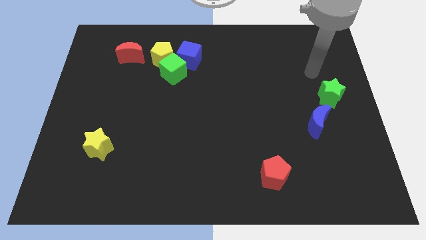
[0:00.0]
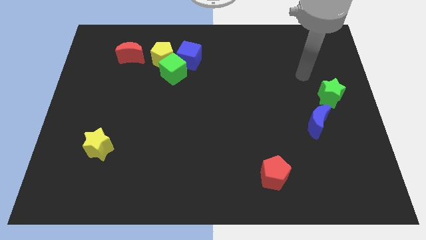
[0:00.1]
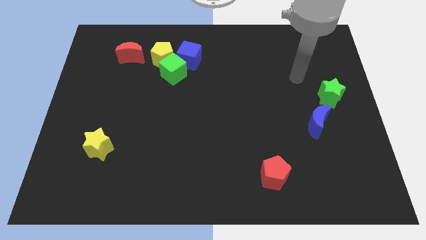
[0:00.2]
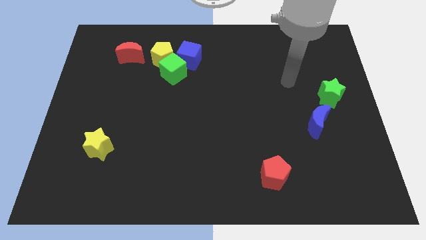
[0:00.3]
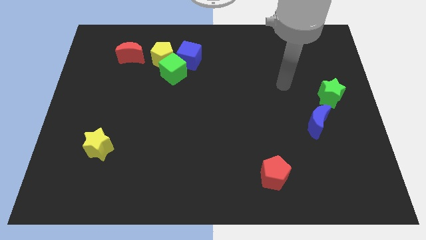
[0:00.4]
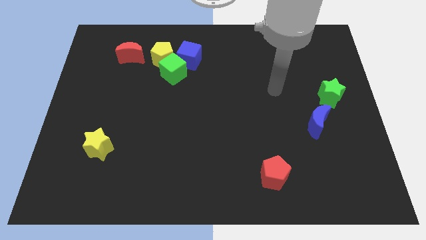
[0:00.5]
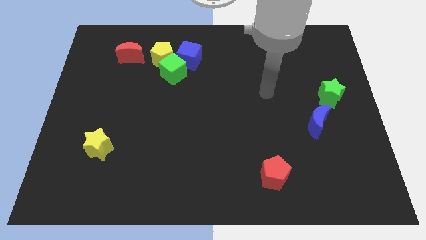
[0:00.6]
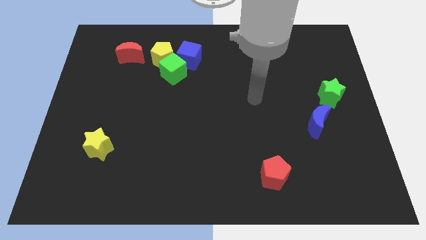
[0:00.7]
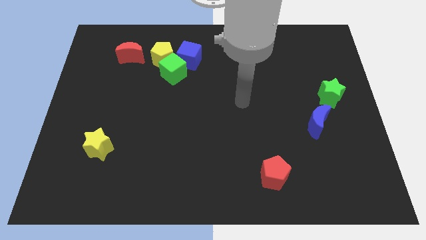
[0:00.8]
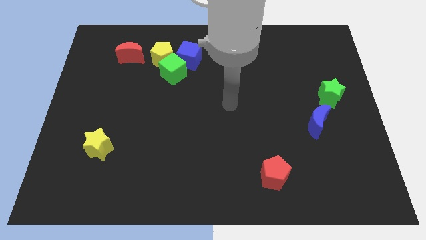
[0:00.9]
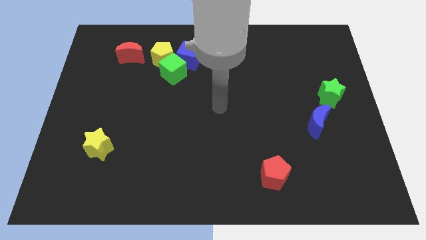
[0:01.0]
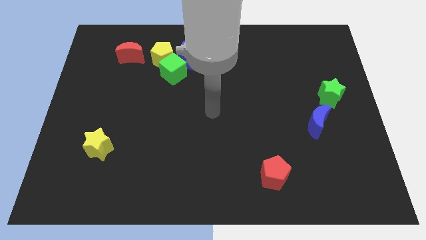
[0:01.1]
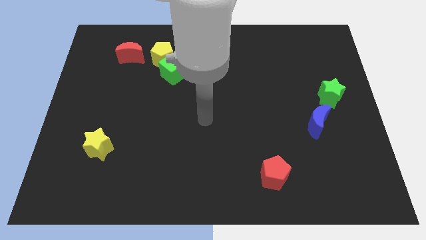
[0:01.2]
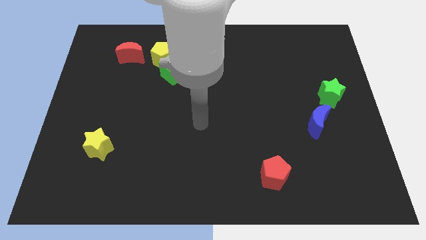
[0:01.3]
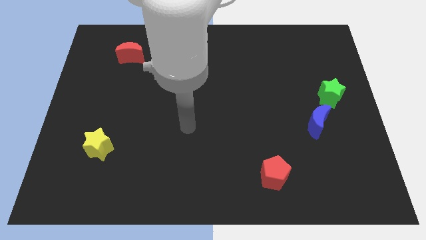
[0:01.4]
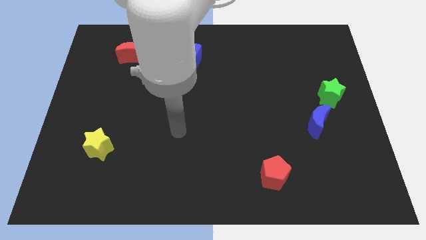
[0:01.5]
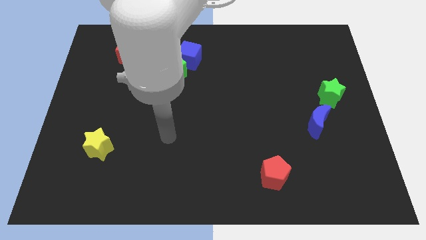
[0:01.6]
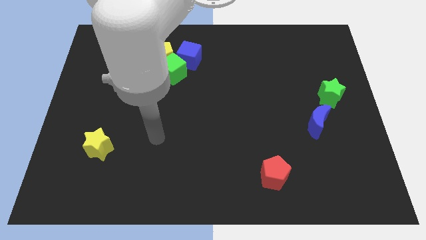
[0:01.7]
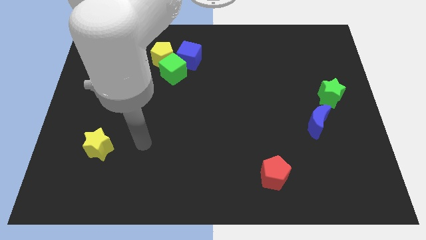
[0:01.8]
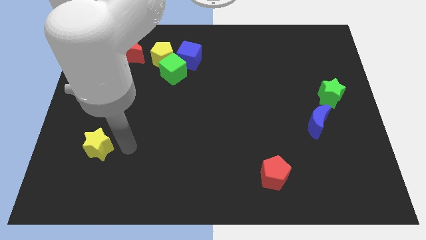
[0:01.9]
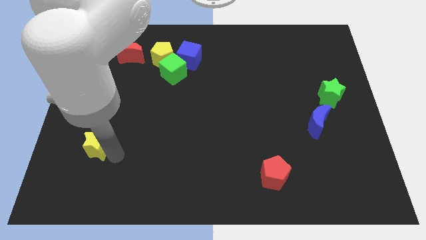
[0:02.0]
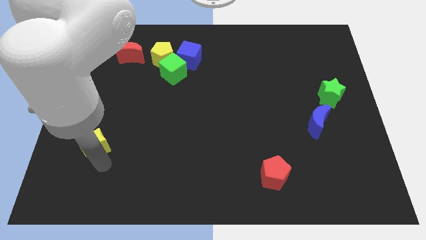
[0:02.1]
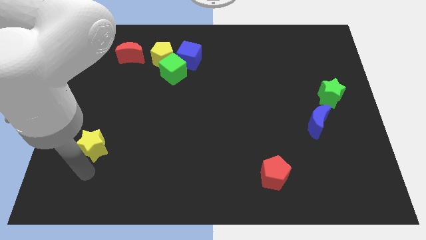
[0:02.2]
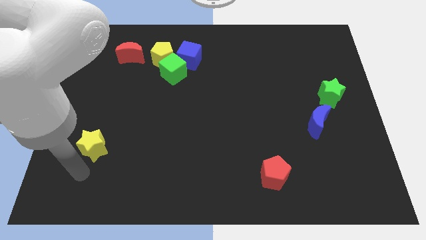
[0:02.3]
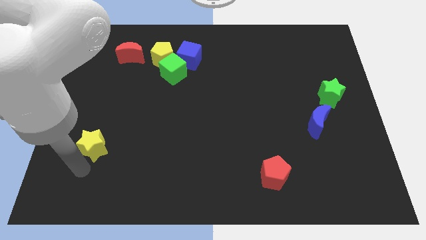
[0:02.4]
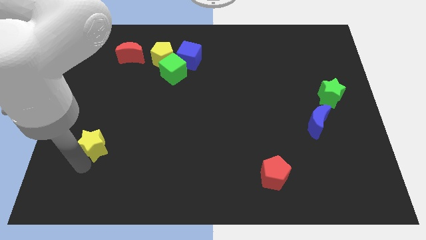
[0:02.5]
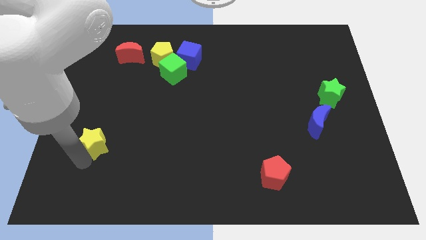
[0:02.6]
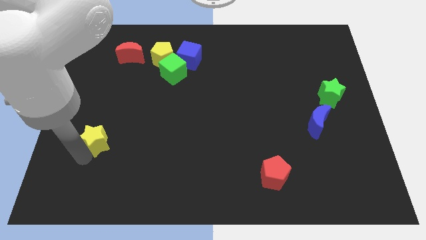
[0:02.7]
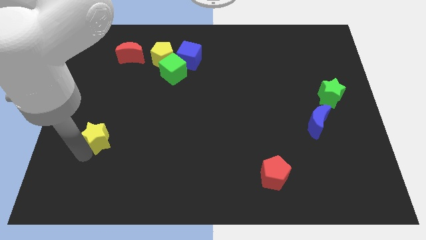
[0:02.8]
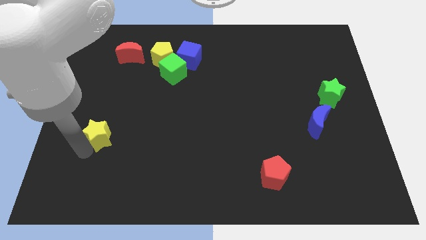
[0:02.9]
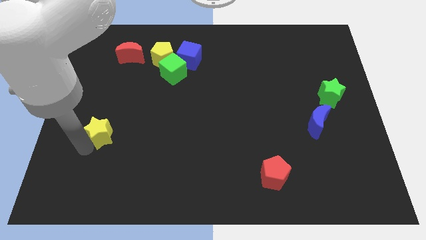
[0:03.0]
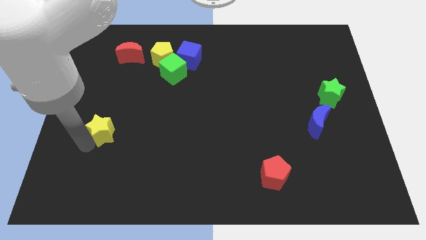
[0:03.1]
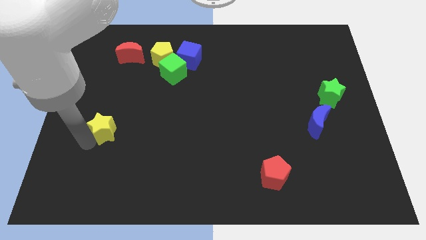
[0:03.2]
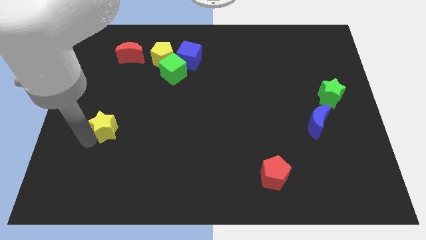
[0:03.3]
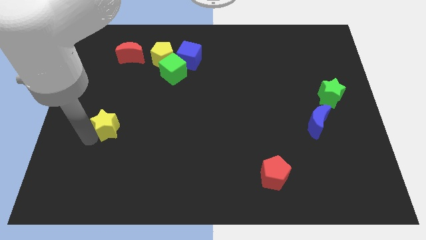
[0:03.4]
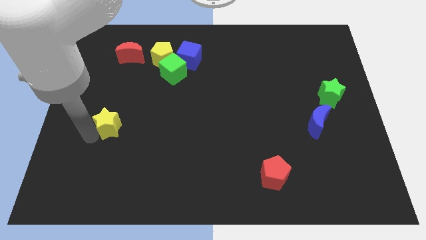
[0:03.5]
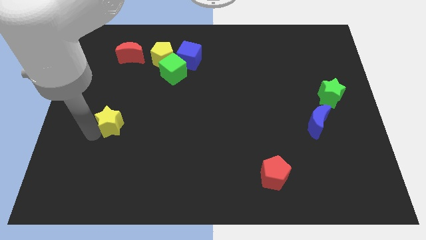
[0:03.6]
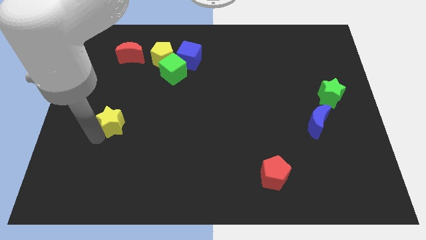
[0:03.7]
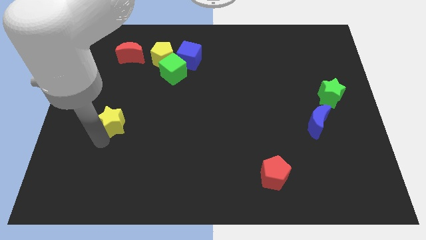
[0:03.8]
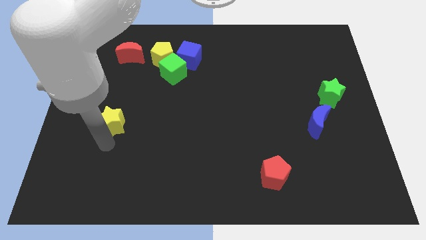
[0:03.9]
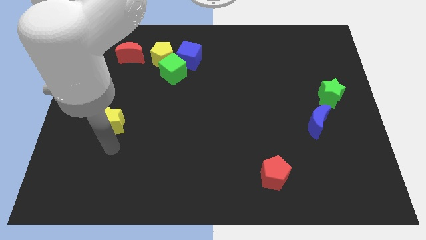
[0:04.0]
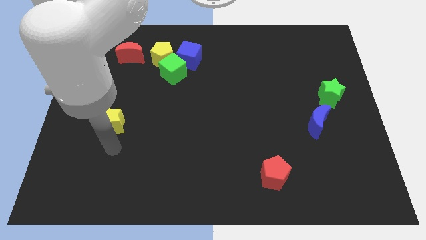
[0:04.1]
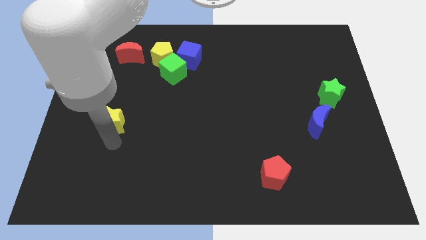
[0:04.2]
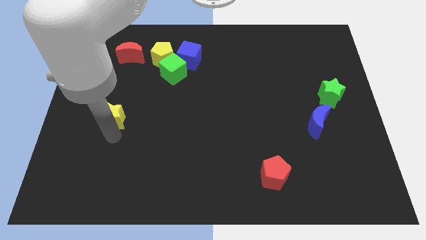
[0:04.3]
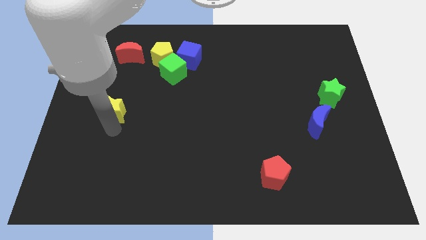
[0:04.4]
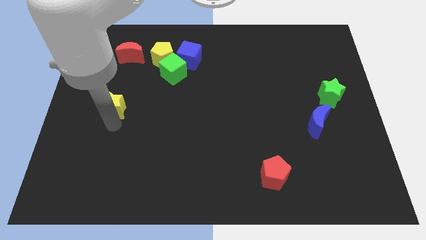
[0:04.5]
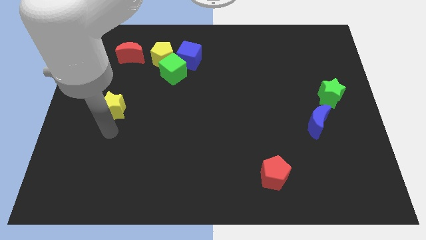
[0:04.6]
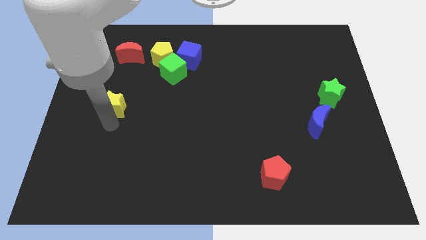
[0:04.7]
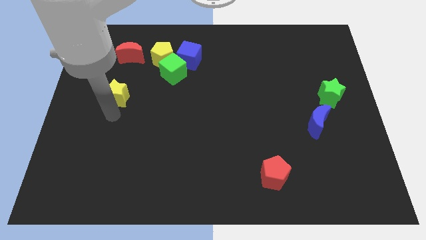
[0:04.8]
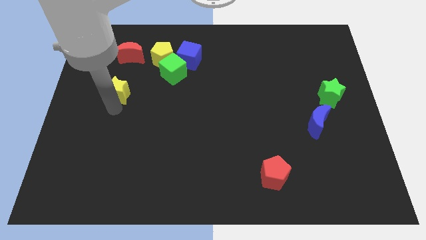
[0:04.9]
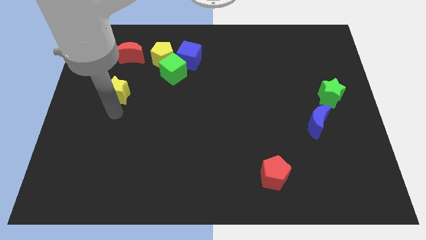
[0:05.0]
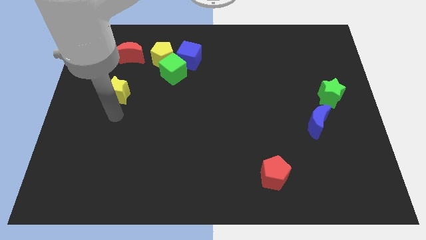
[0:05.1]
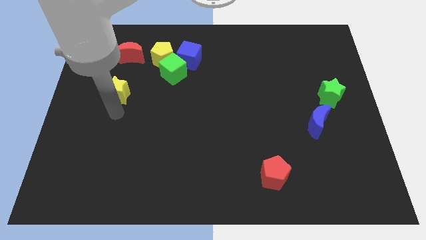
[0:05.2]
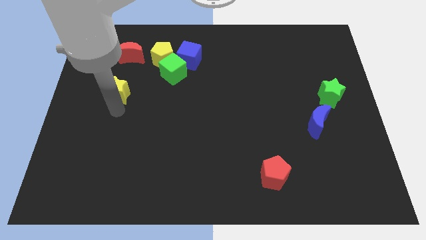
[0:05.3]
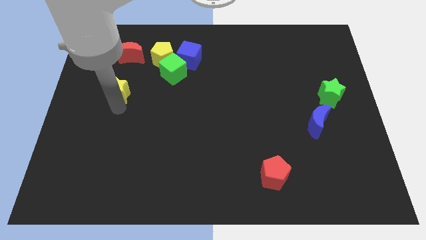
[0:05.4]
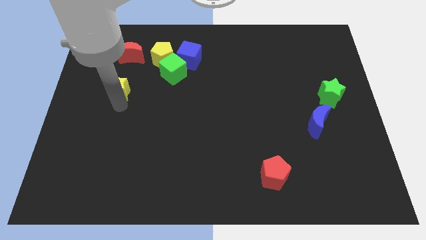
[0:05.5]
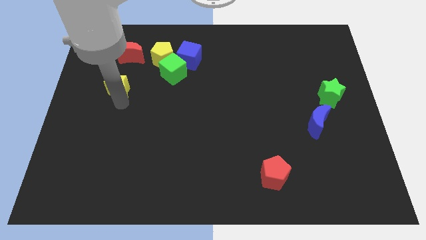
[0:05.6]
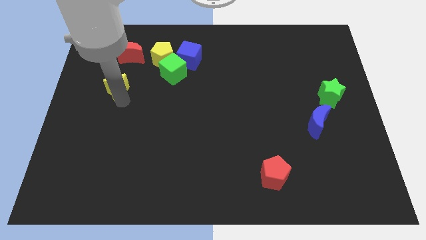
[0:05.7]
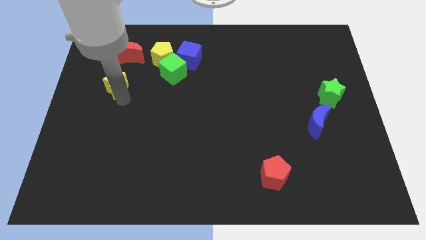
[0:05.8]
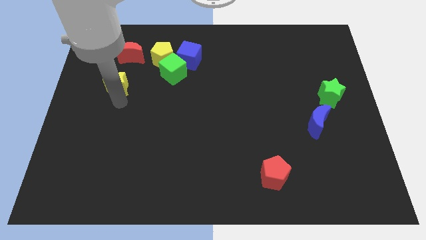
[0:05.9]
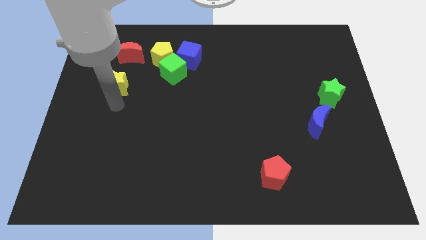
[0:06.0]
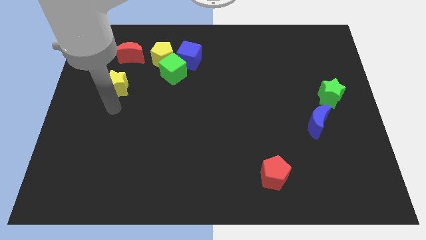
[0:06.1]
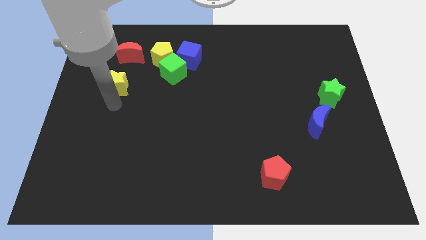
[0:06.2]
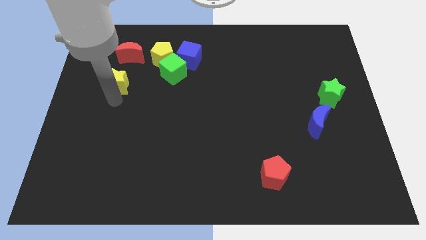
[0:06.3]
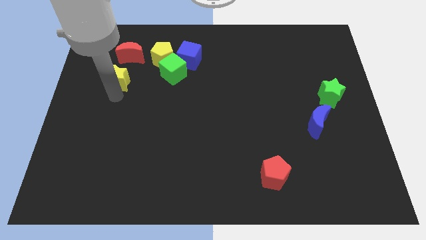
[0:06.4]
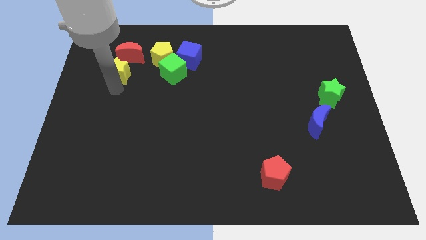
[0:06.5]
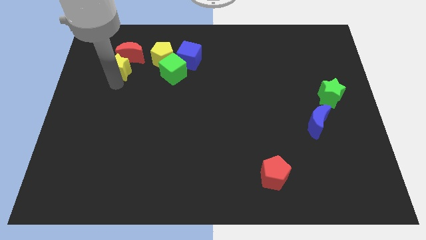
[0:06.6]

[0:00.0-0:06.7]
push the yellow star next to the red moon

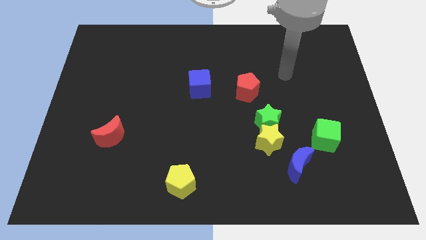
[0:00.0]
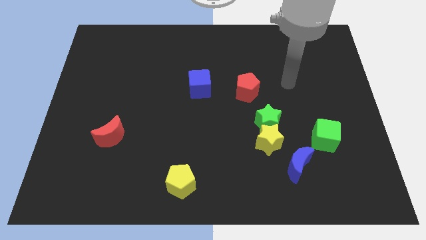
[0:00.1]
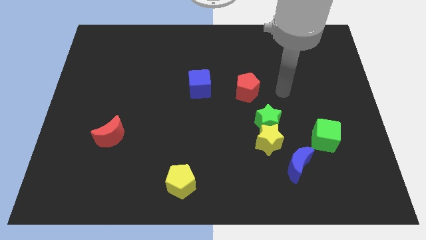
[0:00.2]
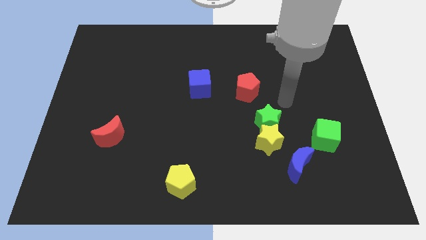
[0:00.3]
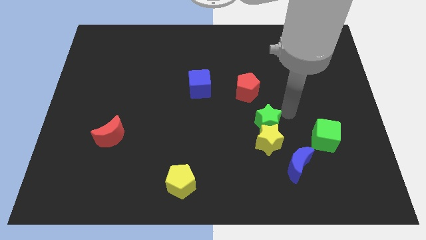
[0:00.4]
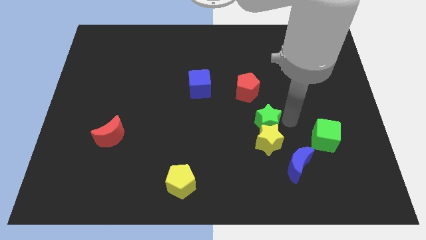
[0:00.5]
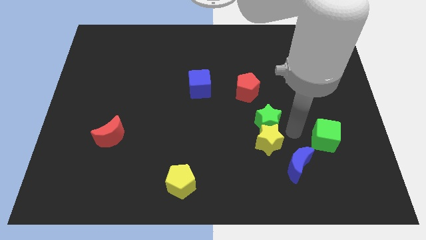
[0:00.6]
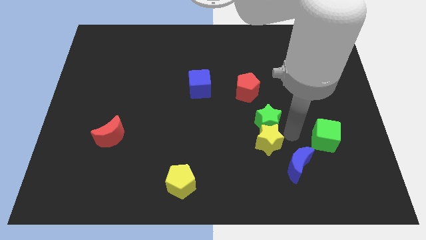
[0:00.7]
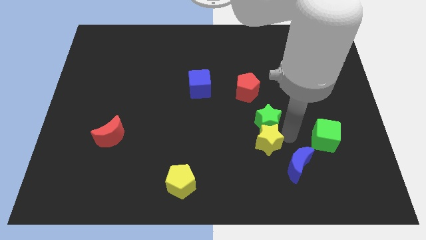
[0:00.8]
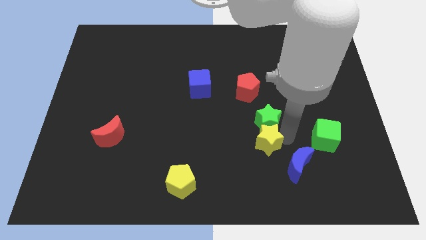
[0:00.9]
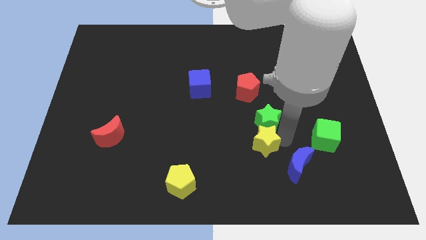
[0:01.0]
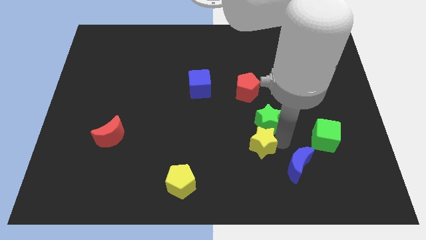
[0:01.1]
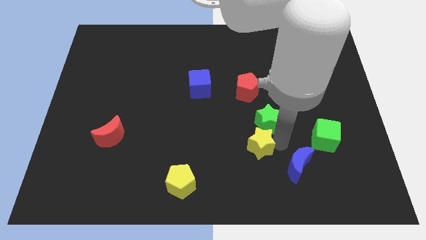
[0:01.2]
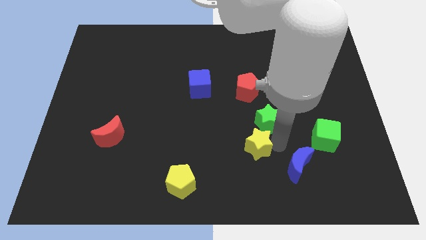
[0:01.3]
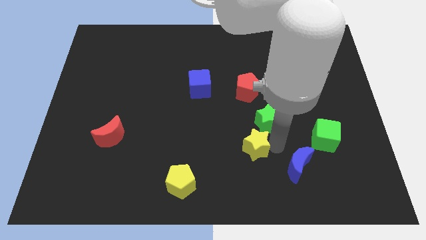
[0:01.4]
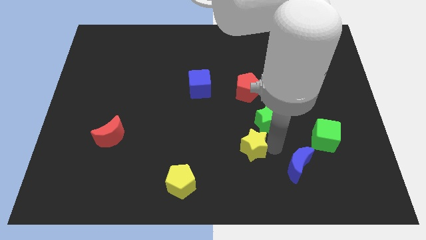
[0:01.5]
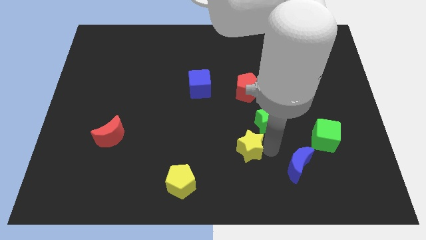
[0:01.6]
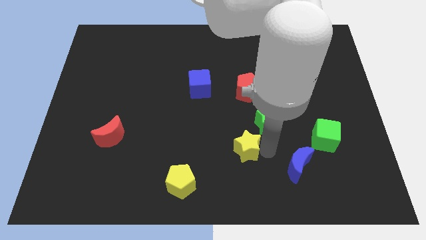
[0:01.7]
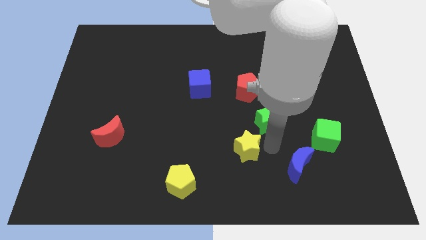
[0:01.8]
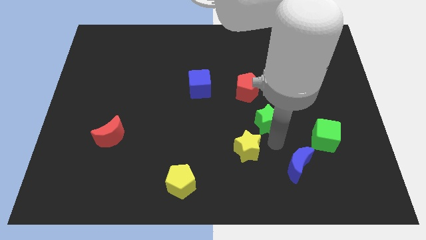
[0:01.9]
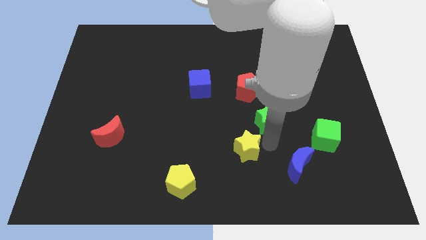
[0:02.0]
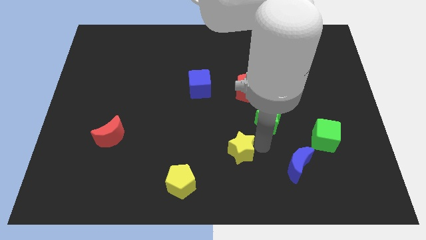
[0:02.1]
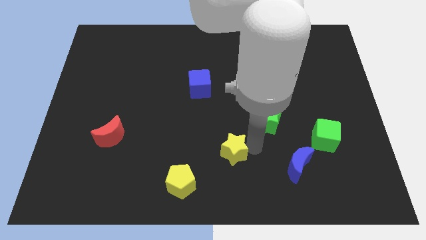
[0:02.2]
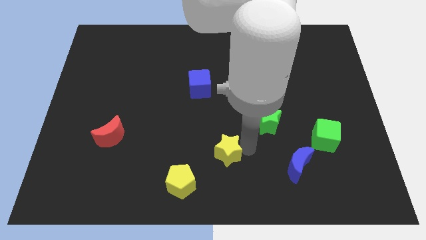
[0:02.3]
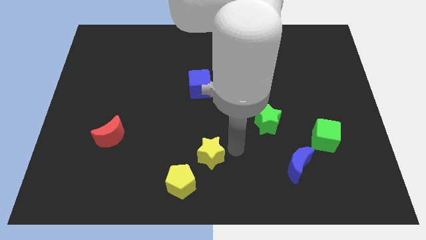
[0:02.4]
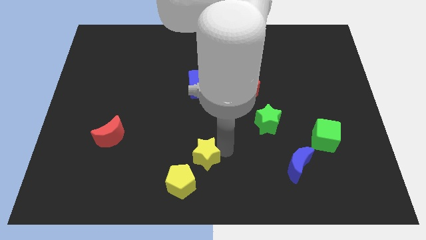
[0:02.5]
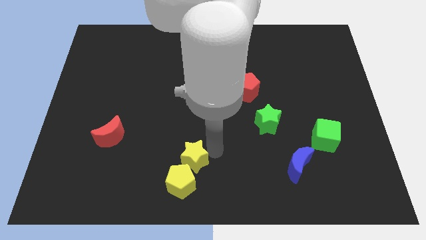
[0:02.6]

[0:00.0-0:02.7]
slide the yellow star towards the yellow pentagon
